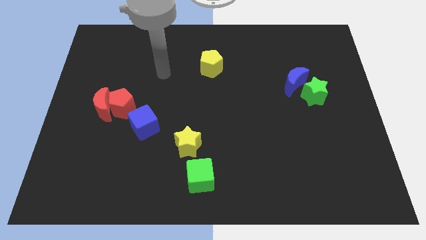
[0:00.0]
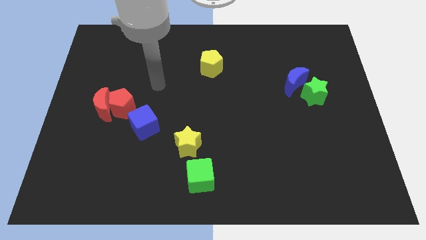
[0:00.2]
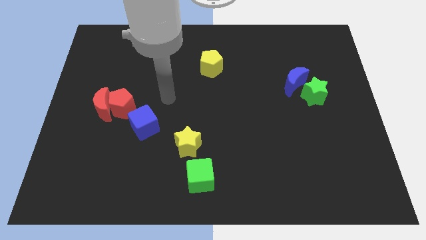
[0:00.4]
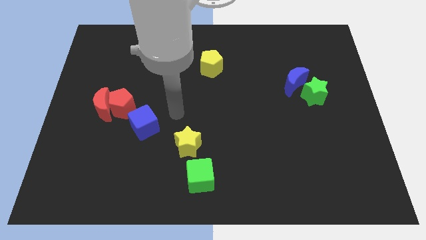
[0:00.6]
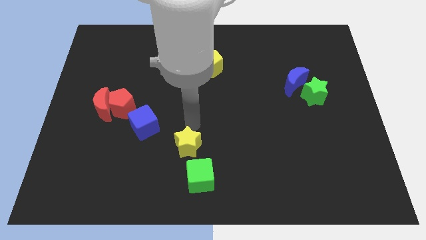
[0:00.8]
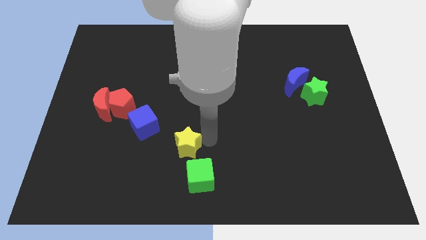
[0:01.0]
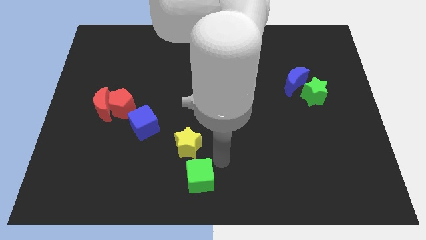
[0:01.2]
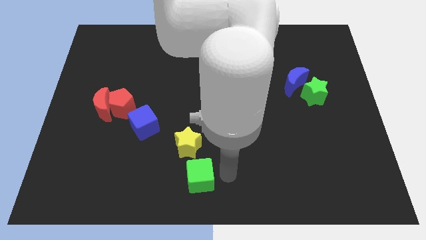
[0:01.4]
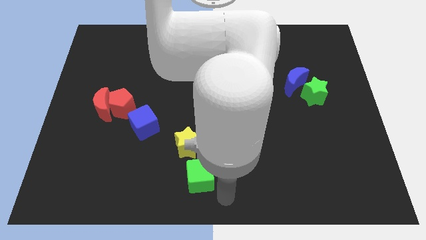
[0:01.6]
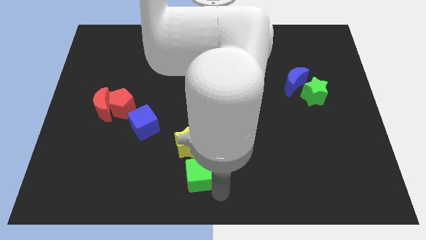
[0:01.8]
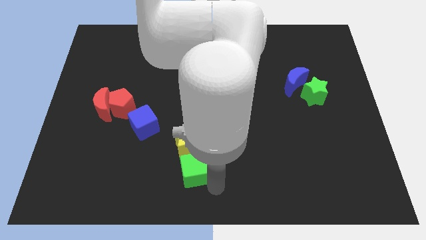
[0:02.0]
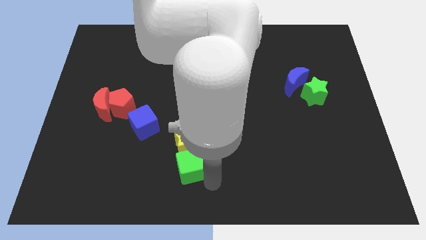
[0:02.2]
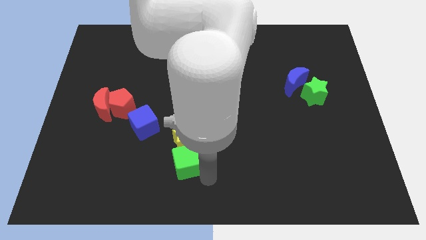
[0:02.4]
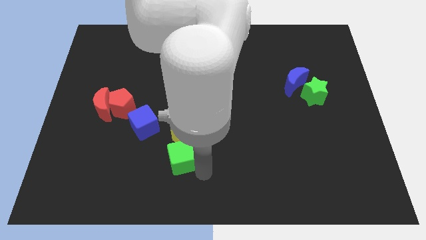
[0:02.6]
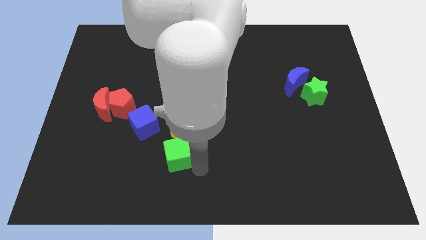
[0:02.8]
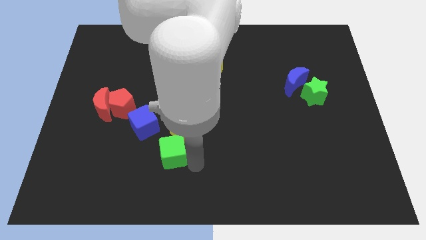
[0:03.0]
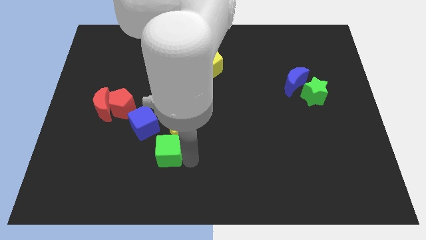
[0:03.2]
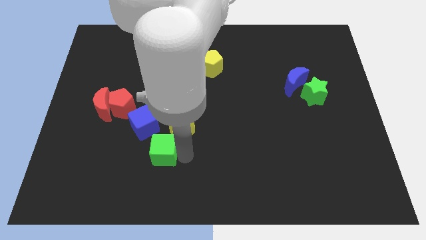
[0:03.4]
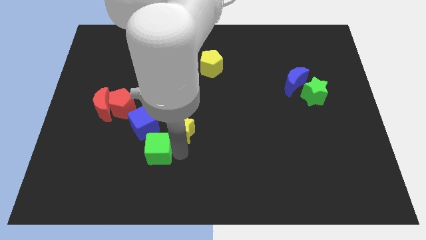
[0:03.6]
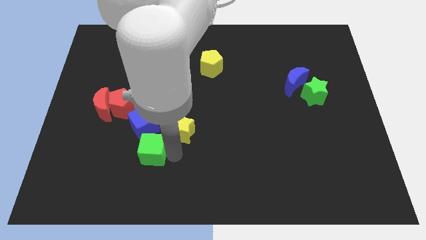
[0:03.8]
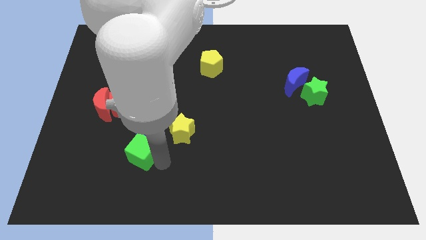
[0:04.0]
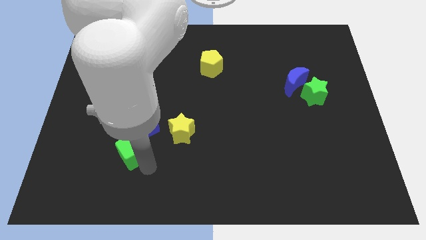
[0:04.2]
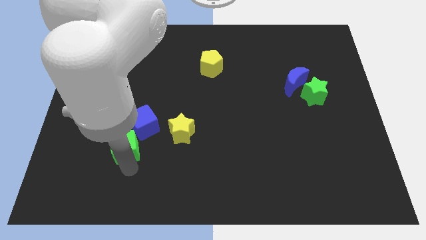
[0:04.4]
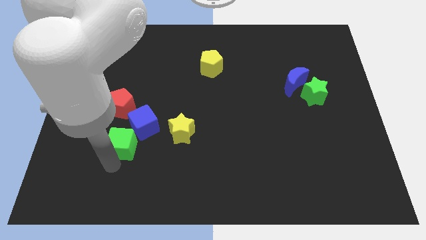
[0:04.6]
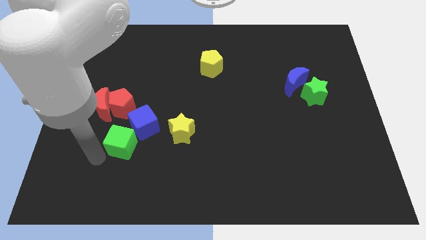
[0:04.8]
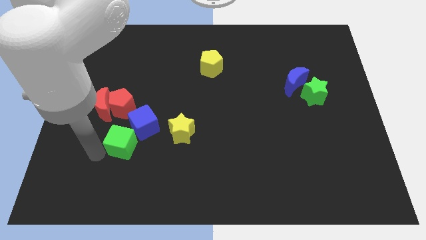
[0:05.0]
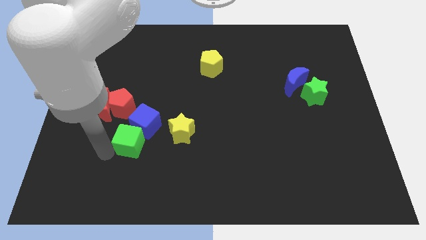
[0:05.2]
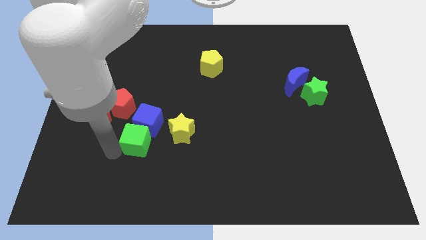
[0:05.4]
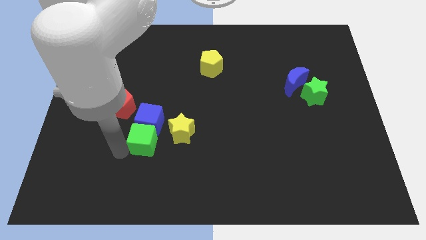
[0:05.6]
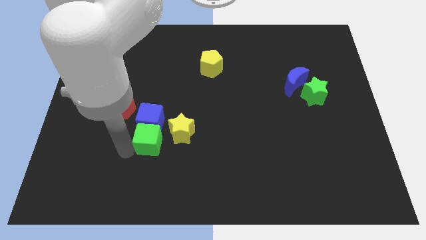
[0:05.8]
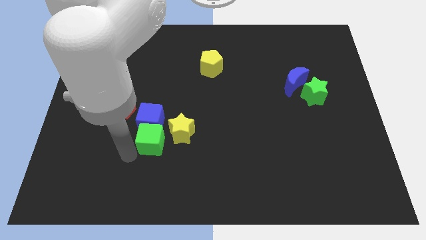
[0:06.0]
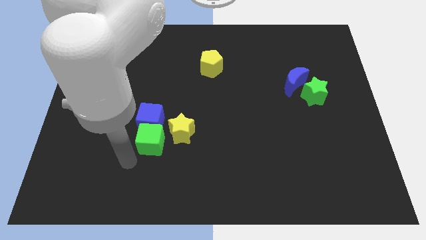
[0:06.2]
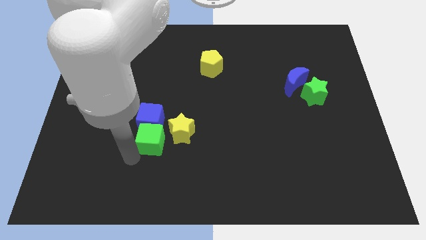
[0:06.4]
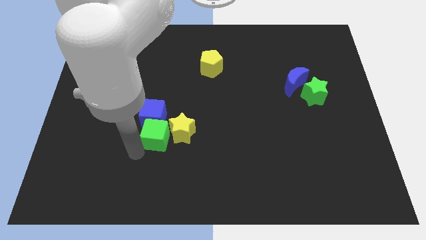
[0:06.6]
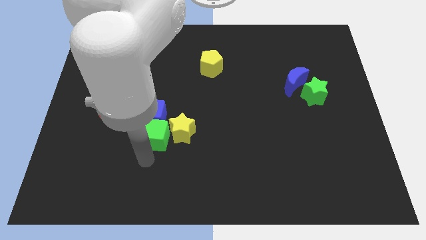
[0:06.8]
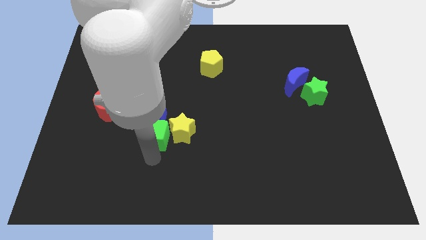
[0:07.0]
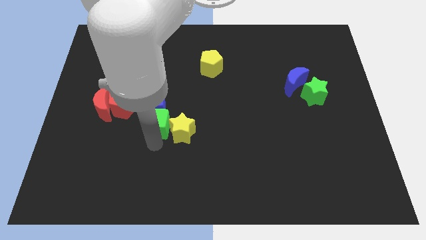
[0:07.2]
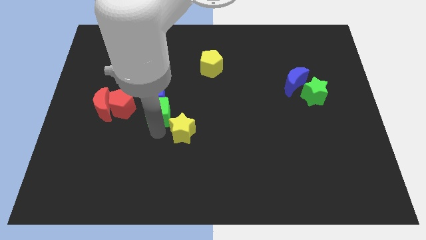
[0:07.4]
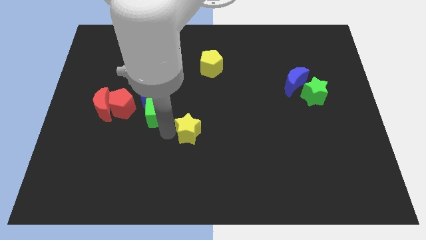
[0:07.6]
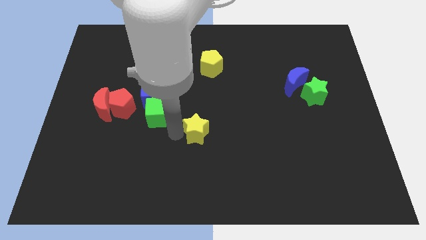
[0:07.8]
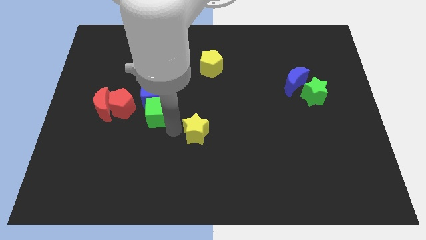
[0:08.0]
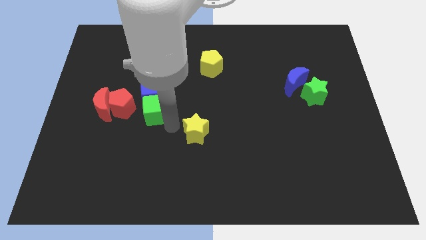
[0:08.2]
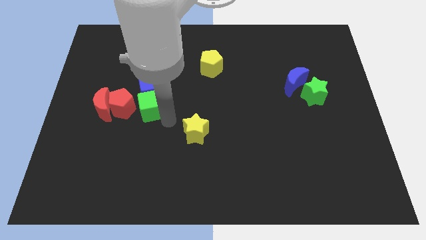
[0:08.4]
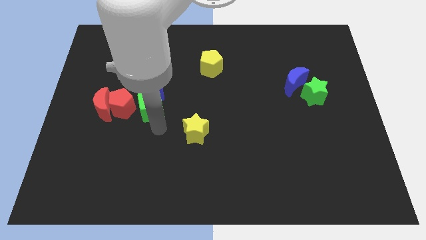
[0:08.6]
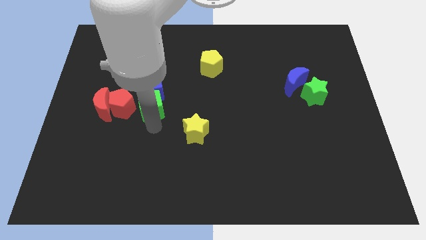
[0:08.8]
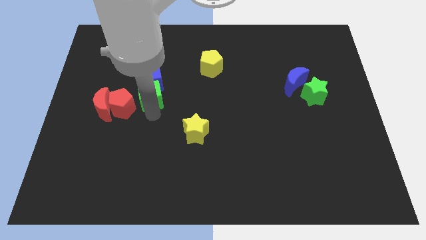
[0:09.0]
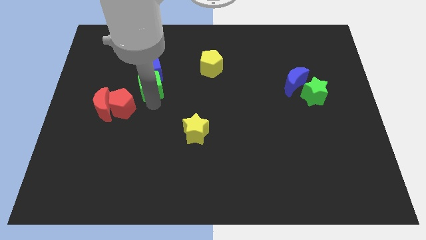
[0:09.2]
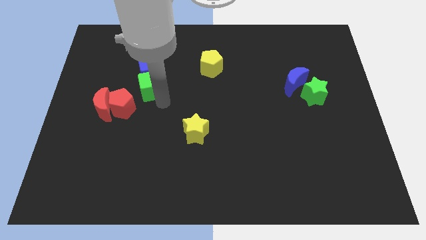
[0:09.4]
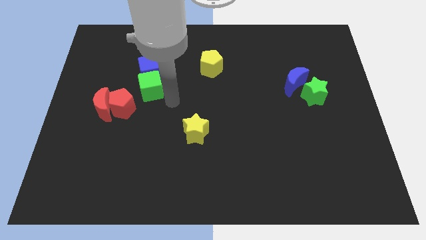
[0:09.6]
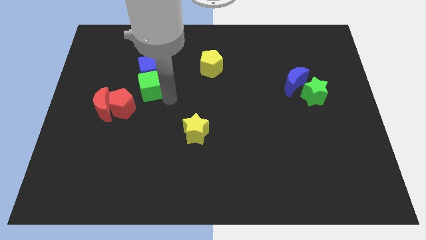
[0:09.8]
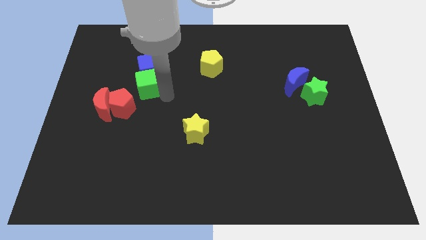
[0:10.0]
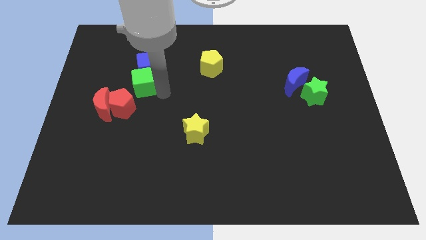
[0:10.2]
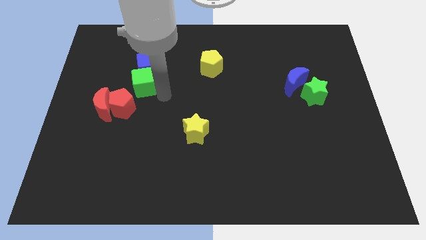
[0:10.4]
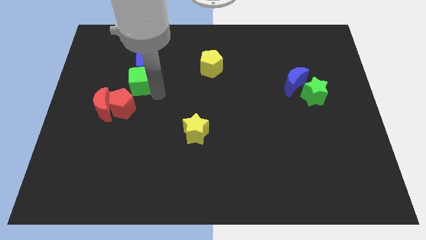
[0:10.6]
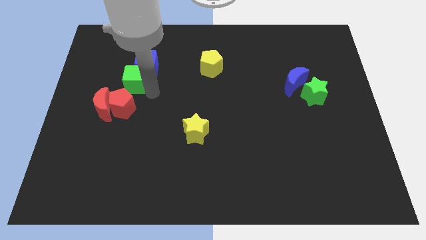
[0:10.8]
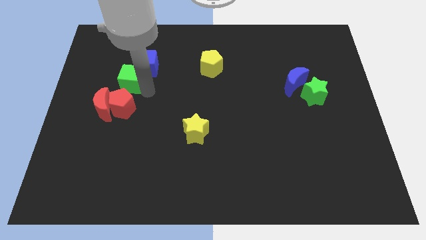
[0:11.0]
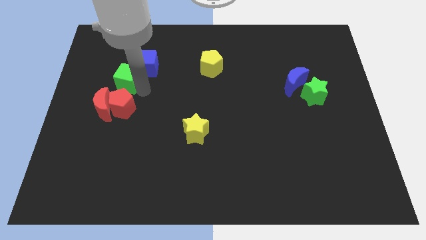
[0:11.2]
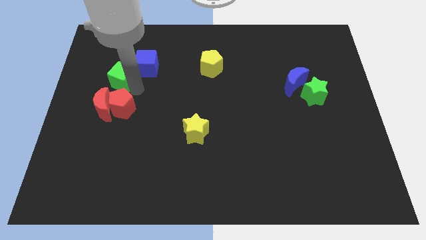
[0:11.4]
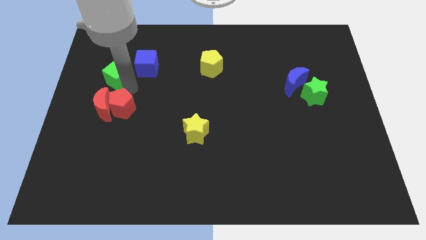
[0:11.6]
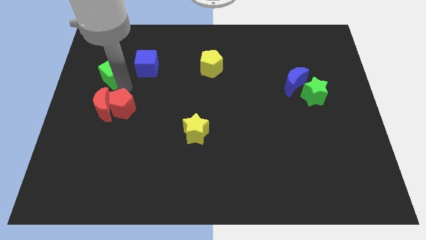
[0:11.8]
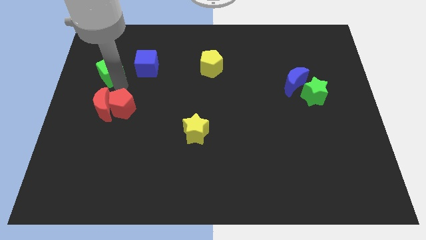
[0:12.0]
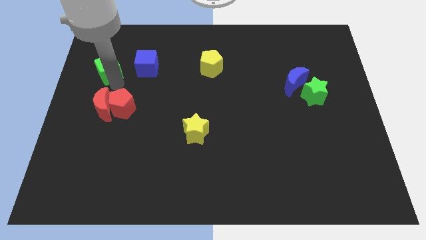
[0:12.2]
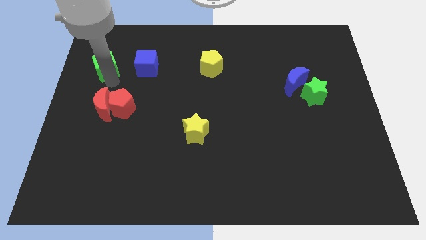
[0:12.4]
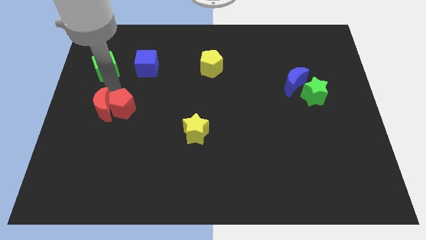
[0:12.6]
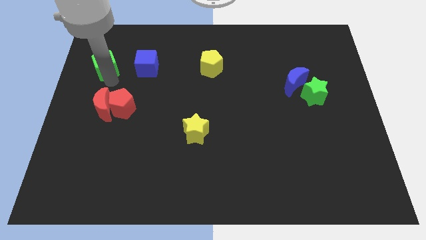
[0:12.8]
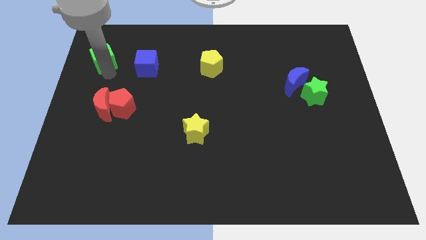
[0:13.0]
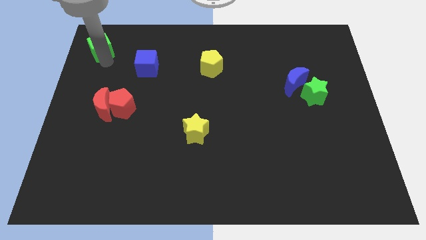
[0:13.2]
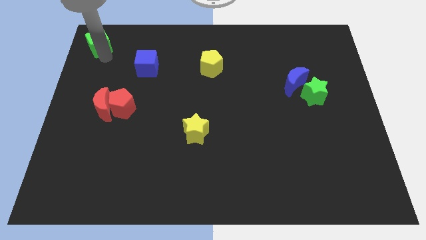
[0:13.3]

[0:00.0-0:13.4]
push the green cube to the top left of the board
